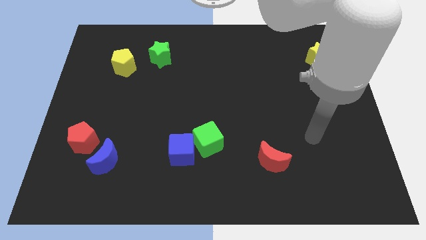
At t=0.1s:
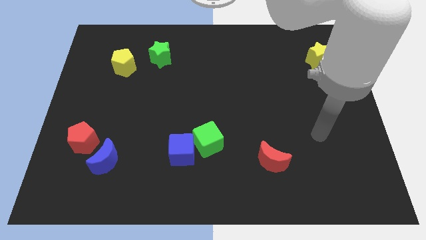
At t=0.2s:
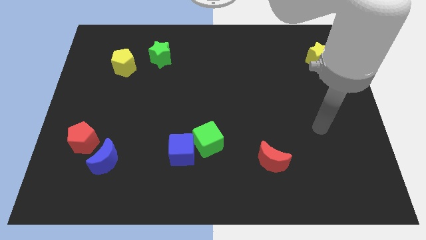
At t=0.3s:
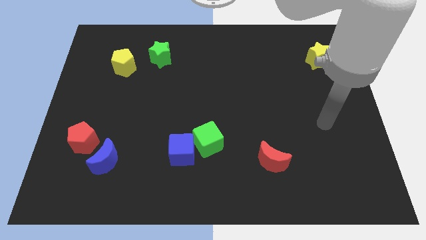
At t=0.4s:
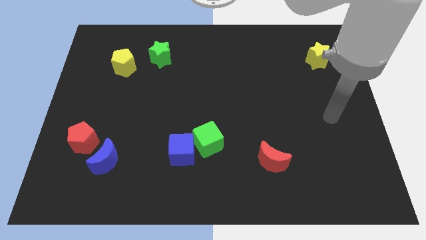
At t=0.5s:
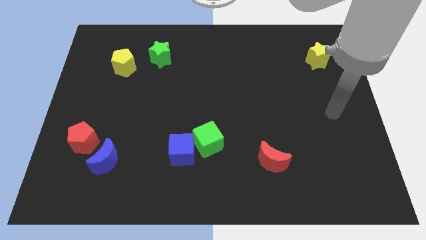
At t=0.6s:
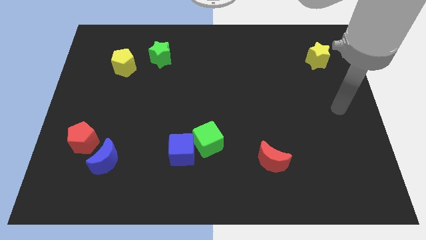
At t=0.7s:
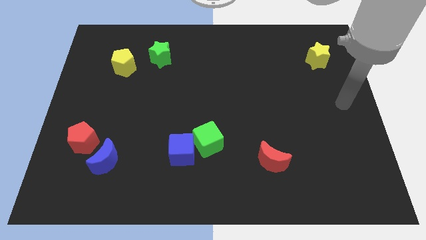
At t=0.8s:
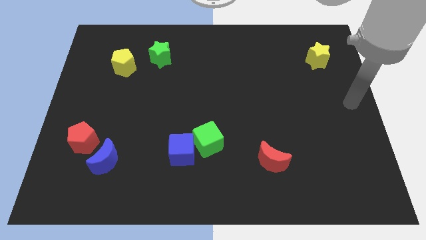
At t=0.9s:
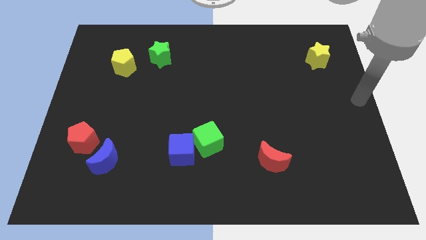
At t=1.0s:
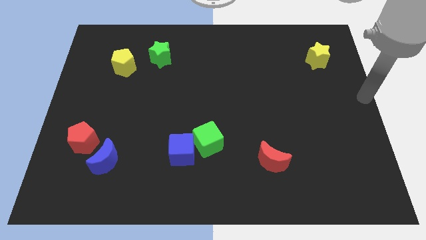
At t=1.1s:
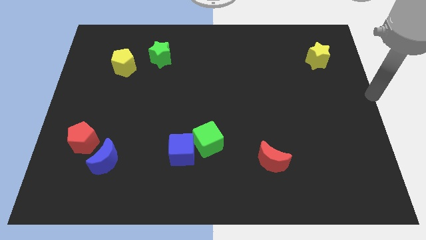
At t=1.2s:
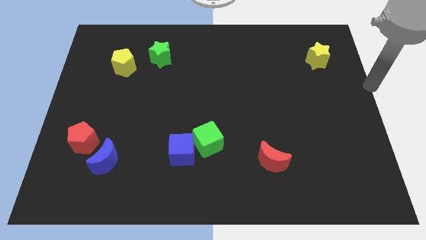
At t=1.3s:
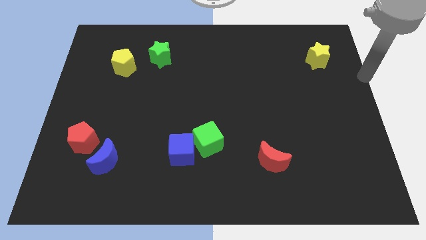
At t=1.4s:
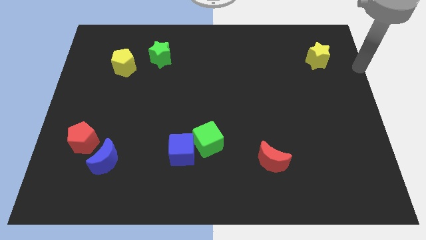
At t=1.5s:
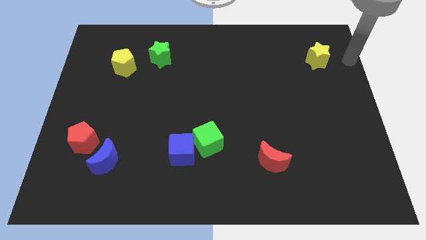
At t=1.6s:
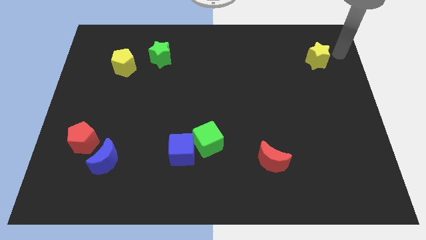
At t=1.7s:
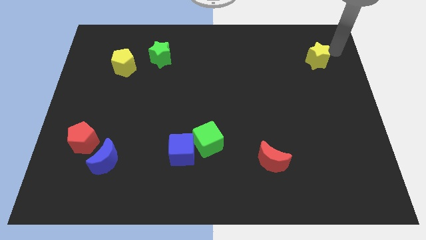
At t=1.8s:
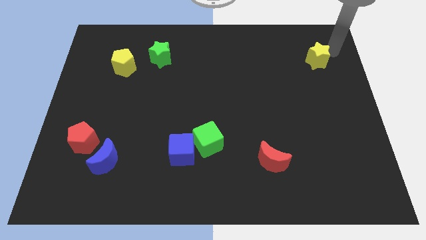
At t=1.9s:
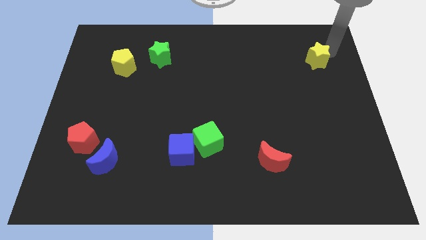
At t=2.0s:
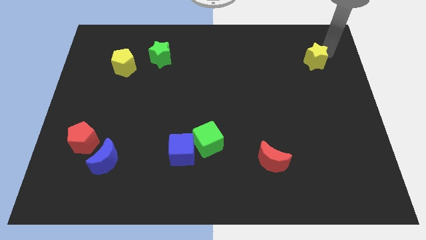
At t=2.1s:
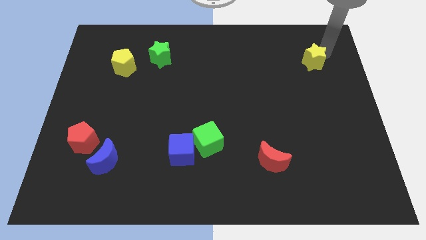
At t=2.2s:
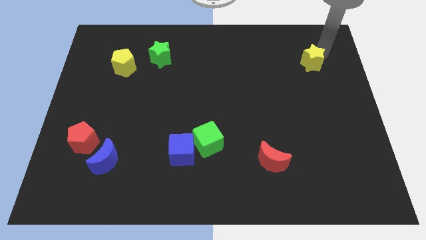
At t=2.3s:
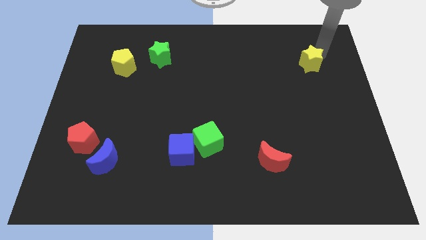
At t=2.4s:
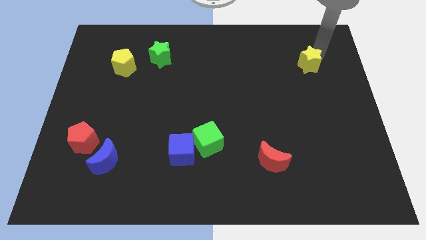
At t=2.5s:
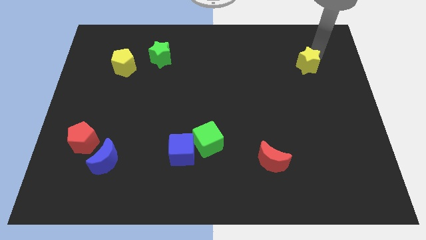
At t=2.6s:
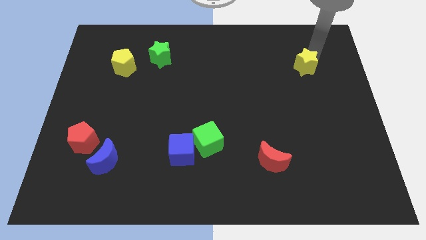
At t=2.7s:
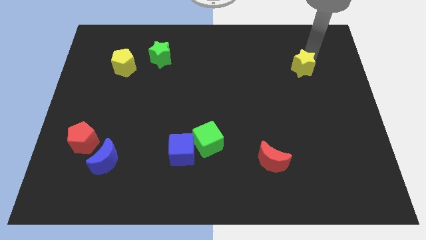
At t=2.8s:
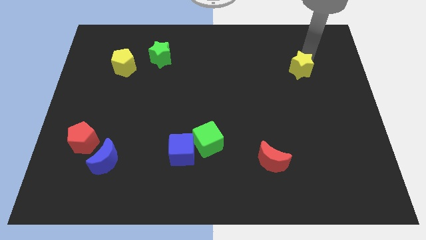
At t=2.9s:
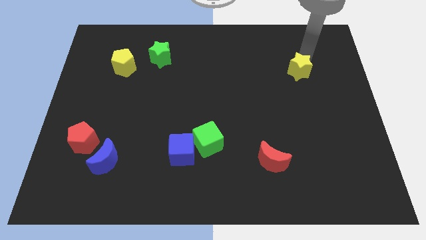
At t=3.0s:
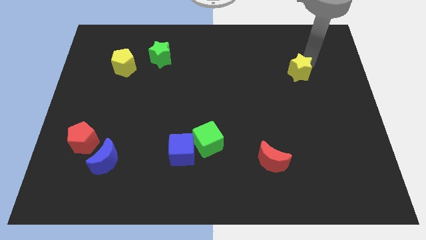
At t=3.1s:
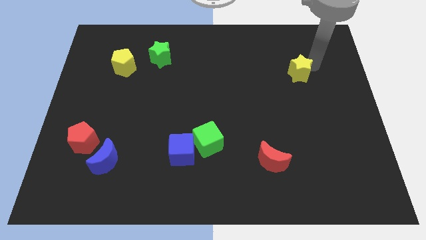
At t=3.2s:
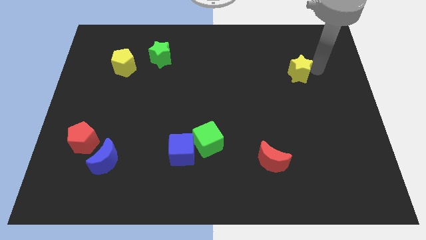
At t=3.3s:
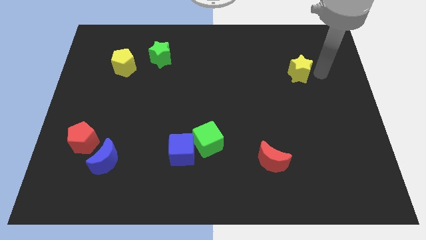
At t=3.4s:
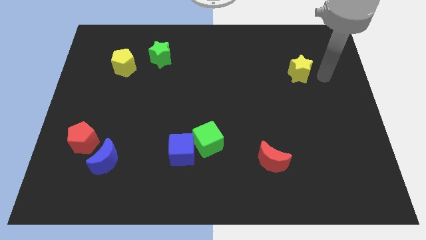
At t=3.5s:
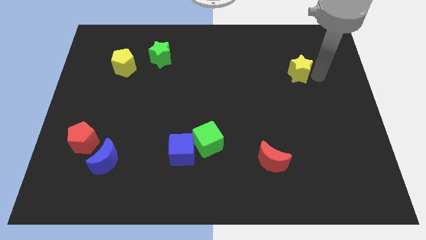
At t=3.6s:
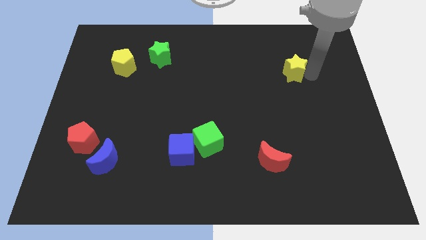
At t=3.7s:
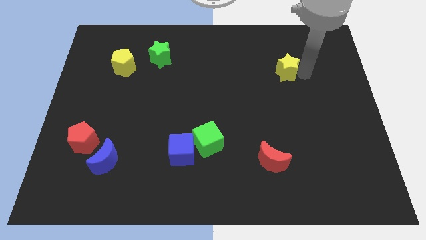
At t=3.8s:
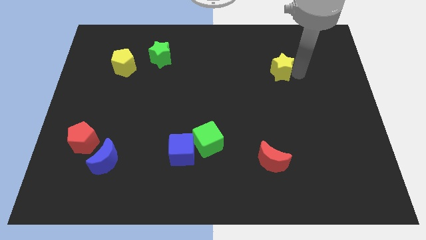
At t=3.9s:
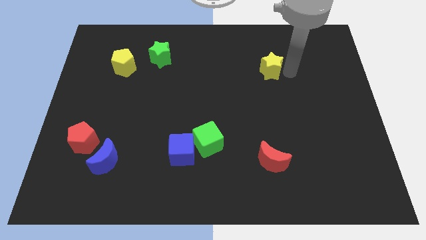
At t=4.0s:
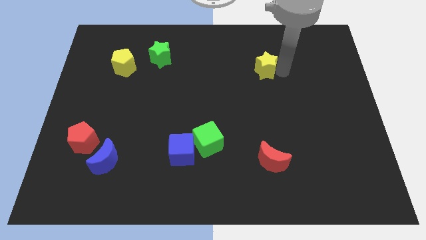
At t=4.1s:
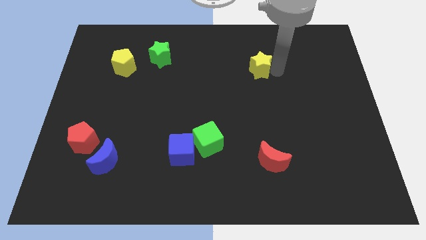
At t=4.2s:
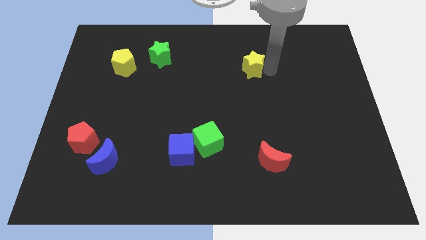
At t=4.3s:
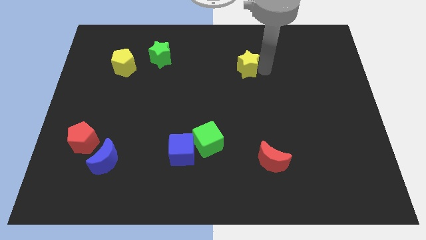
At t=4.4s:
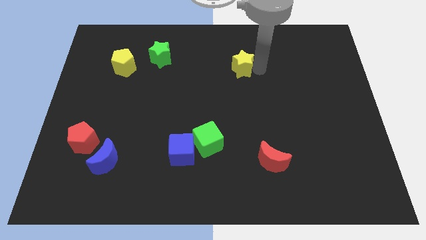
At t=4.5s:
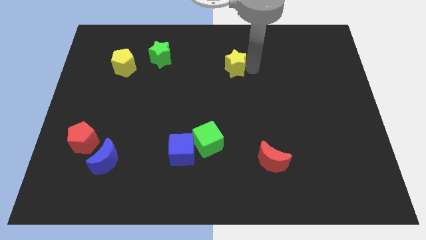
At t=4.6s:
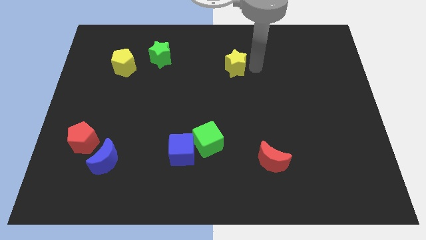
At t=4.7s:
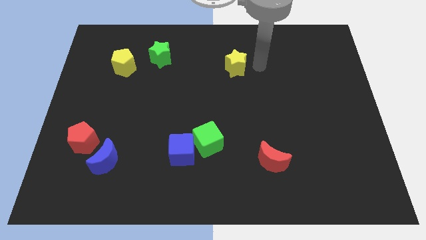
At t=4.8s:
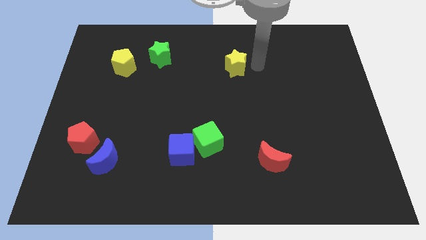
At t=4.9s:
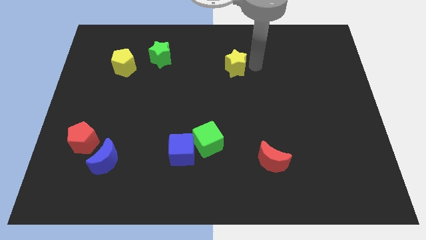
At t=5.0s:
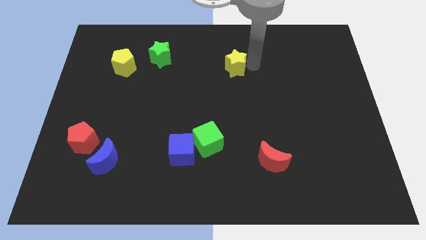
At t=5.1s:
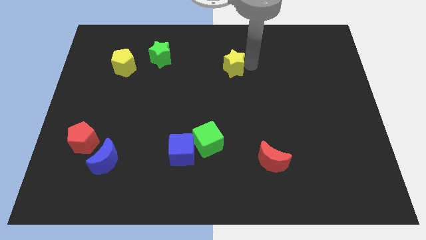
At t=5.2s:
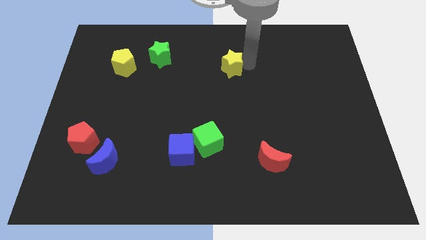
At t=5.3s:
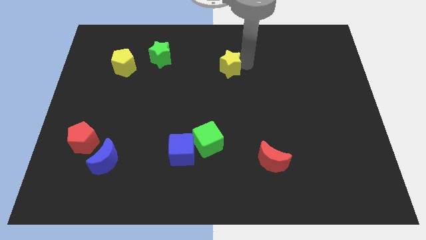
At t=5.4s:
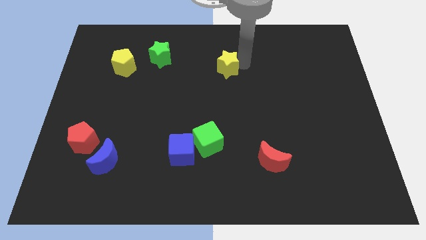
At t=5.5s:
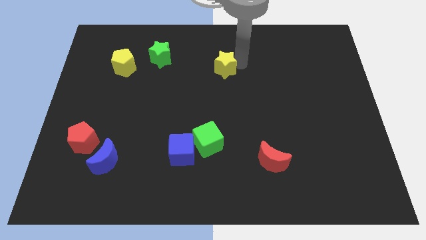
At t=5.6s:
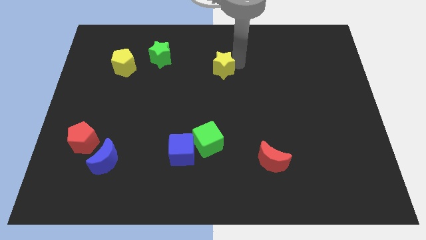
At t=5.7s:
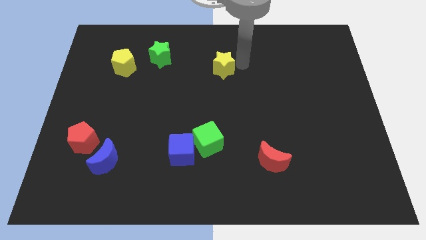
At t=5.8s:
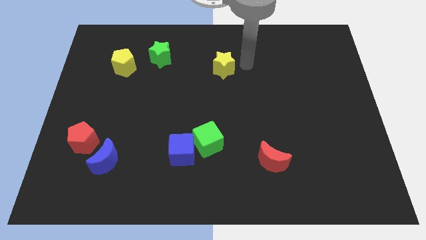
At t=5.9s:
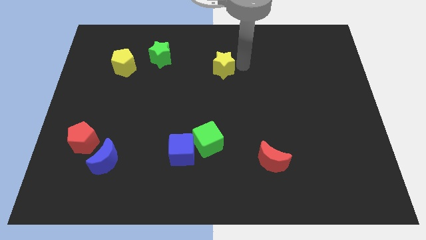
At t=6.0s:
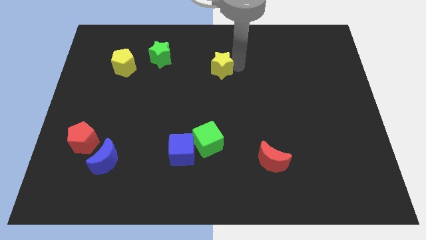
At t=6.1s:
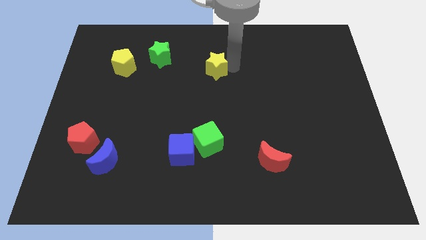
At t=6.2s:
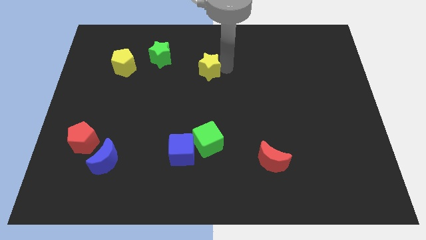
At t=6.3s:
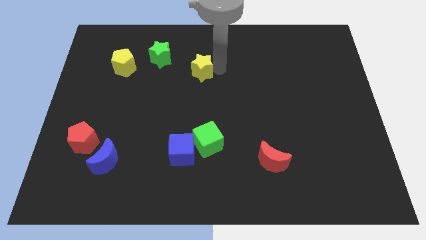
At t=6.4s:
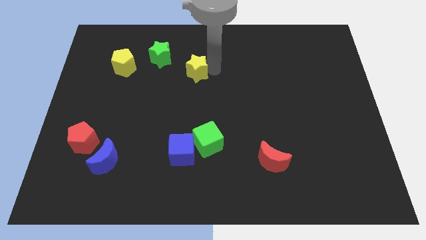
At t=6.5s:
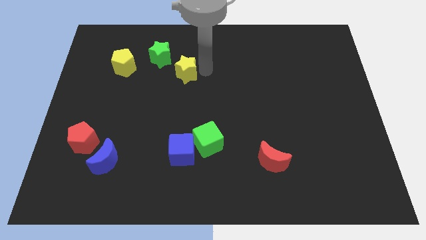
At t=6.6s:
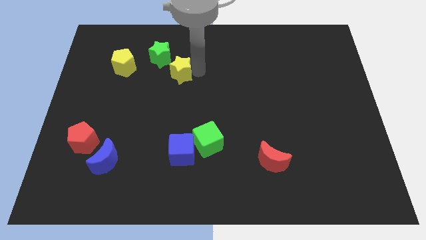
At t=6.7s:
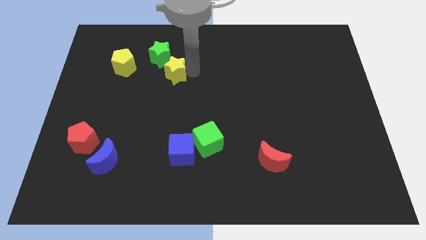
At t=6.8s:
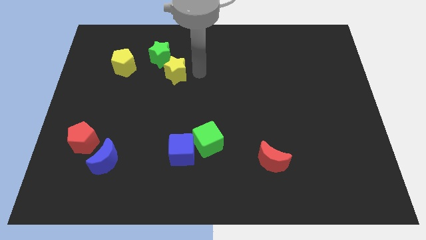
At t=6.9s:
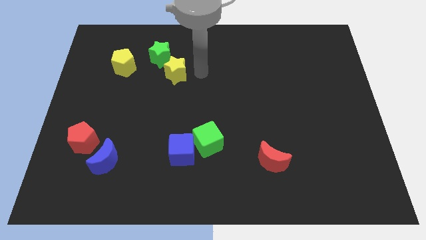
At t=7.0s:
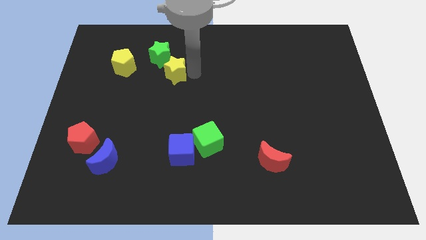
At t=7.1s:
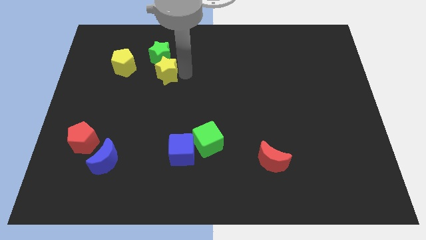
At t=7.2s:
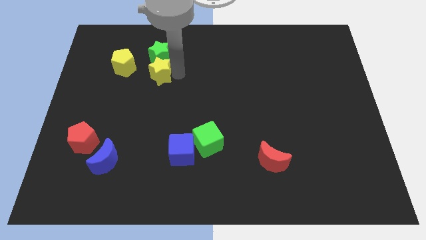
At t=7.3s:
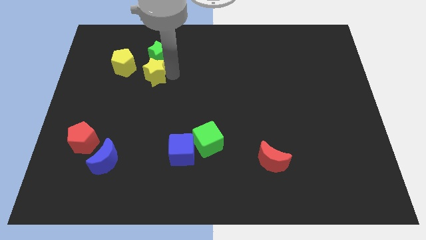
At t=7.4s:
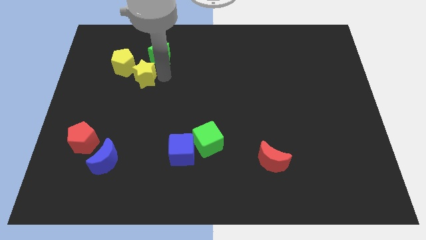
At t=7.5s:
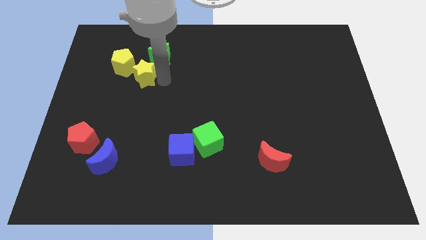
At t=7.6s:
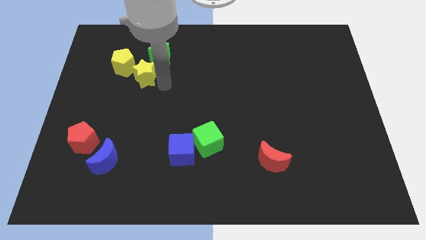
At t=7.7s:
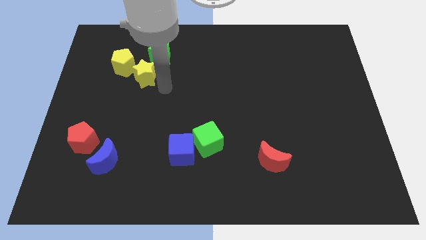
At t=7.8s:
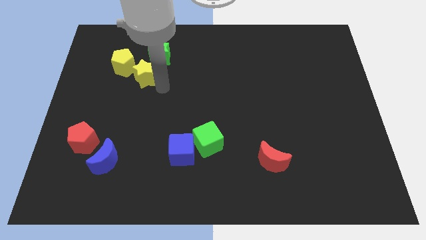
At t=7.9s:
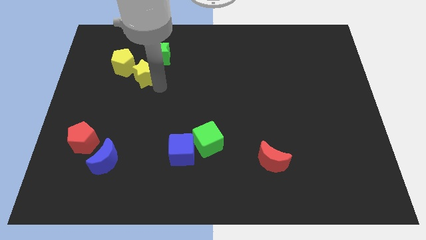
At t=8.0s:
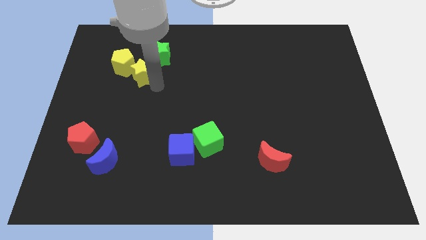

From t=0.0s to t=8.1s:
push the yellow star towards the yellow pentagon
